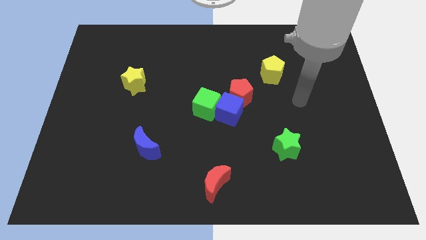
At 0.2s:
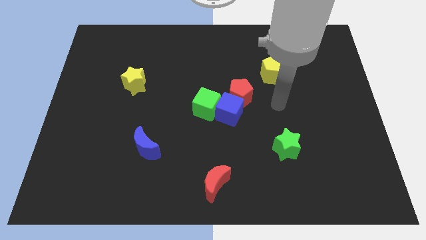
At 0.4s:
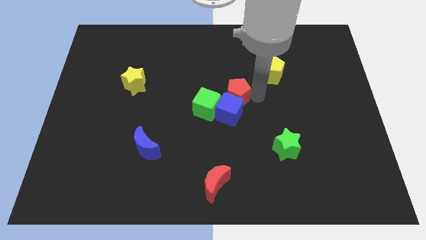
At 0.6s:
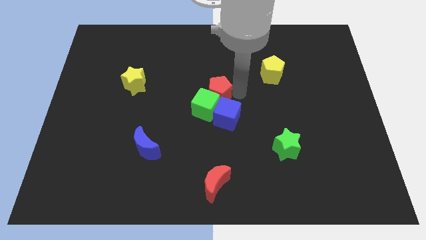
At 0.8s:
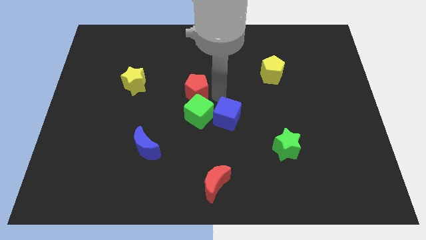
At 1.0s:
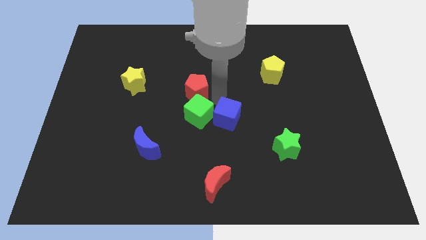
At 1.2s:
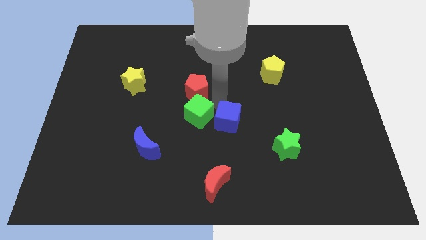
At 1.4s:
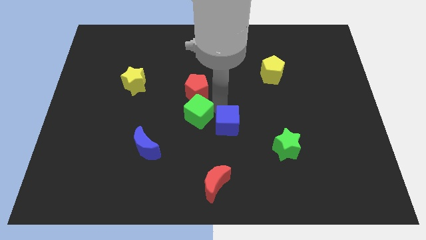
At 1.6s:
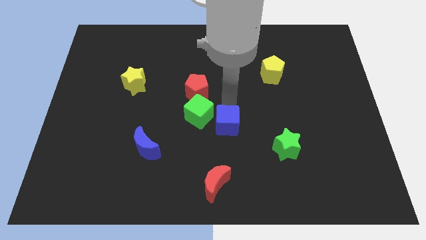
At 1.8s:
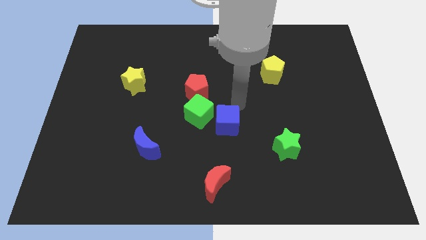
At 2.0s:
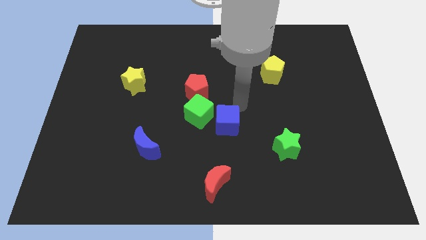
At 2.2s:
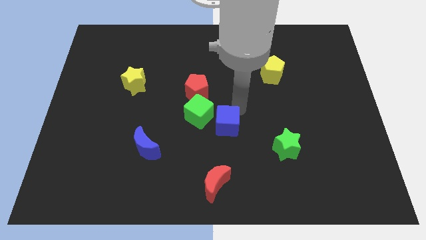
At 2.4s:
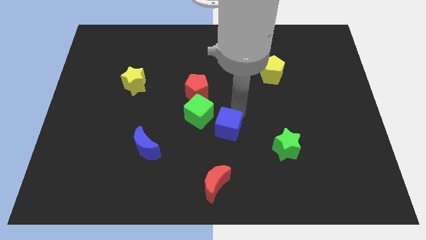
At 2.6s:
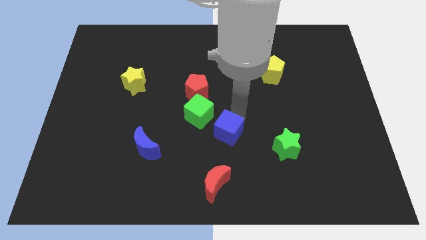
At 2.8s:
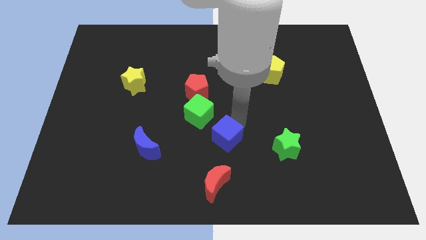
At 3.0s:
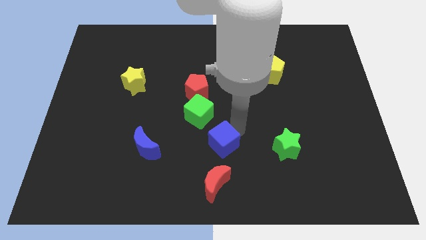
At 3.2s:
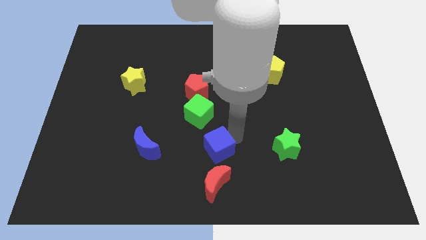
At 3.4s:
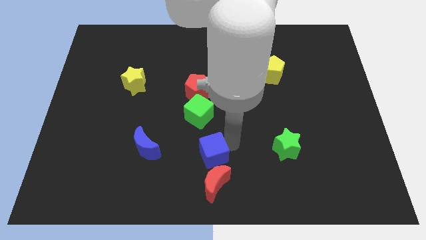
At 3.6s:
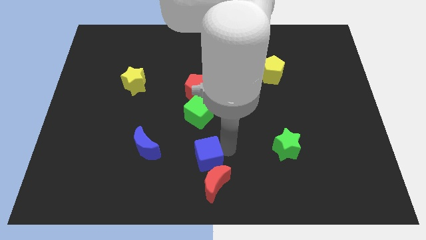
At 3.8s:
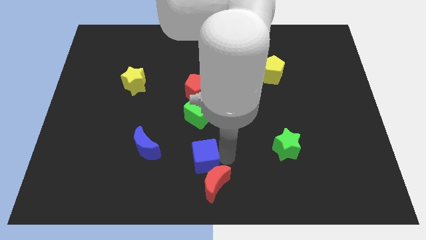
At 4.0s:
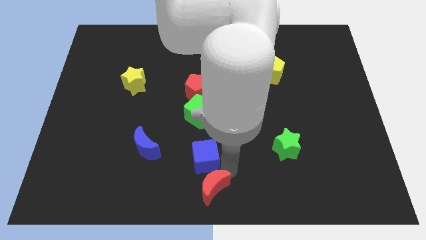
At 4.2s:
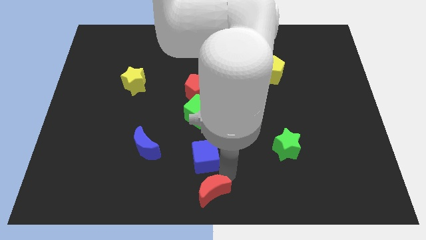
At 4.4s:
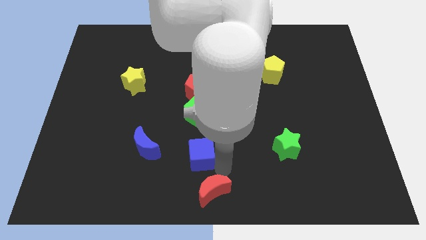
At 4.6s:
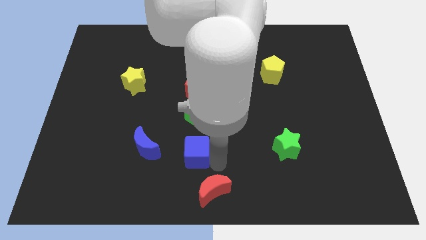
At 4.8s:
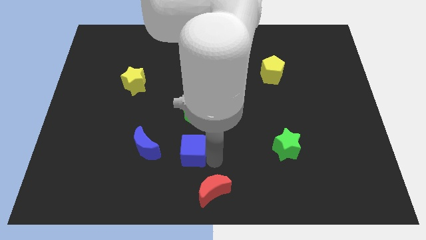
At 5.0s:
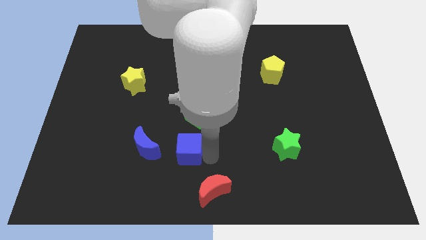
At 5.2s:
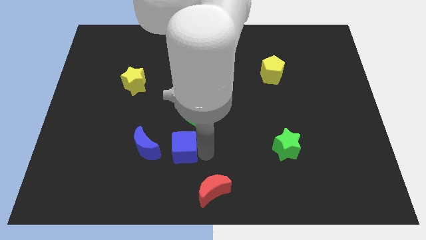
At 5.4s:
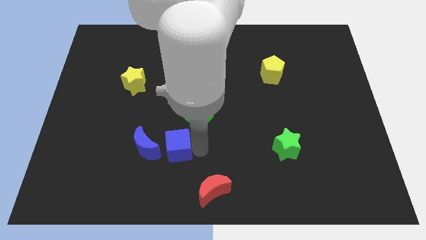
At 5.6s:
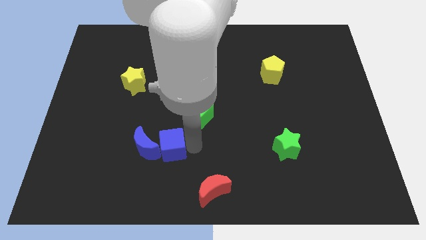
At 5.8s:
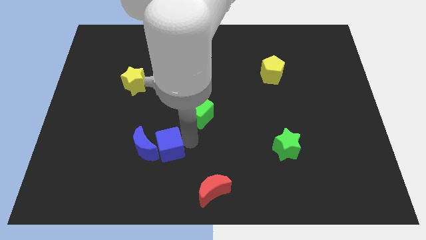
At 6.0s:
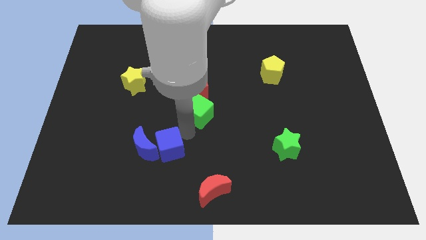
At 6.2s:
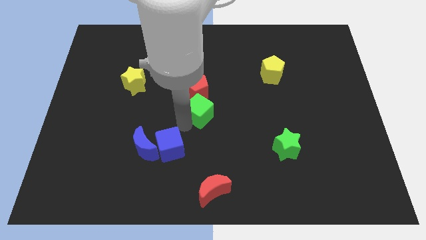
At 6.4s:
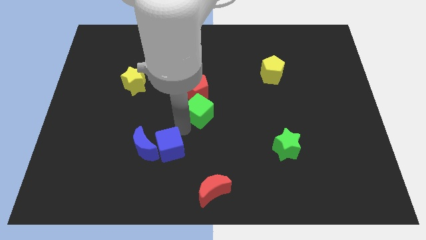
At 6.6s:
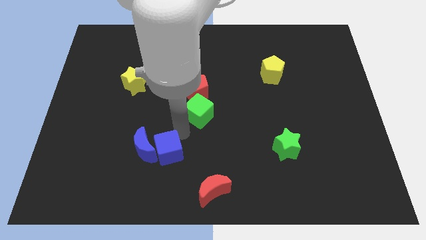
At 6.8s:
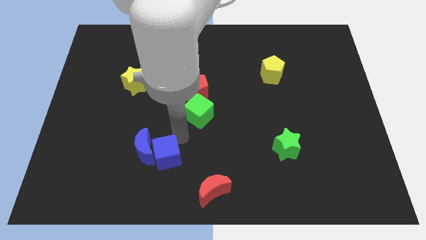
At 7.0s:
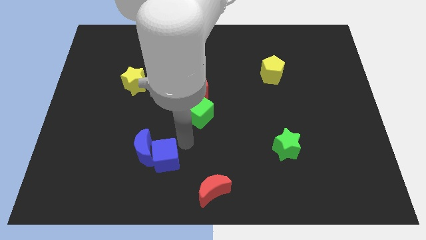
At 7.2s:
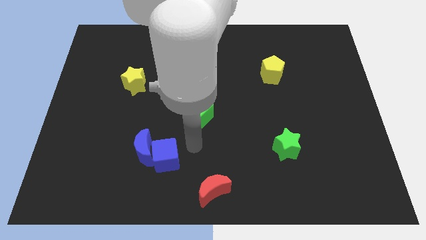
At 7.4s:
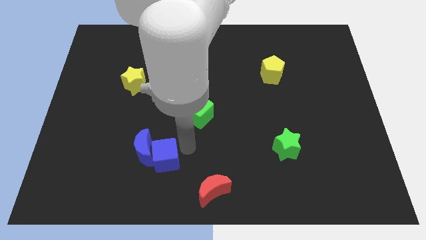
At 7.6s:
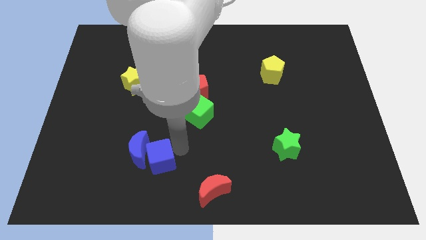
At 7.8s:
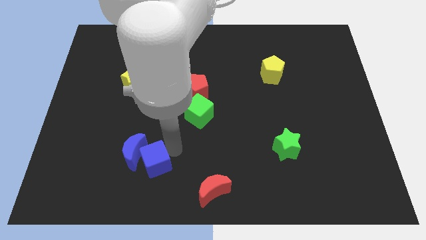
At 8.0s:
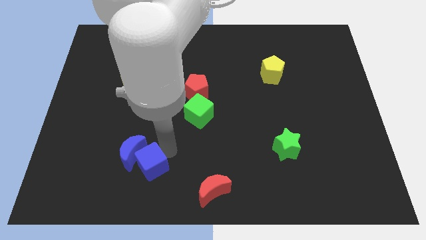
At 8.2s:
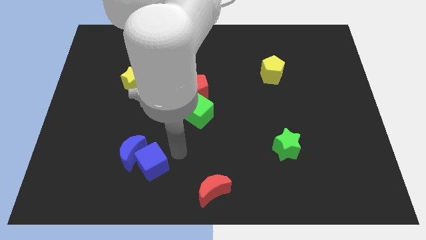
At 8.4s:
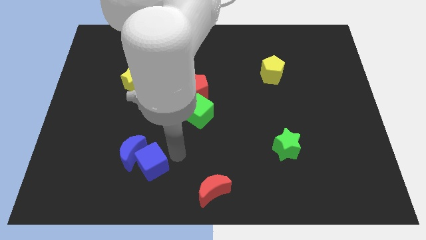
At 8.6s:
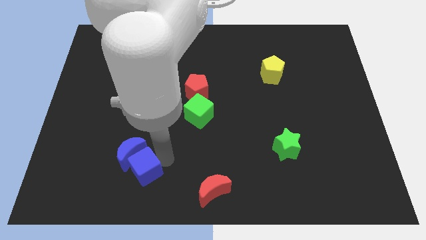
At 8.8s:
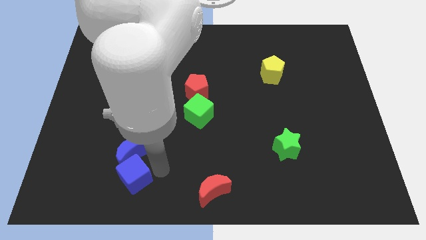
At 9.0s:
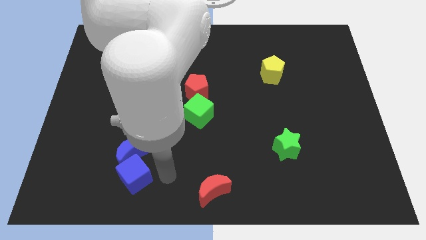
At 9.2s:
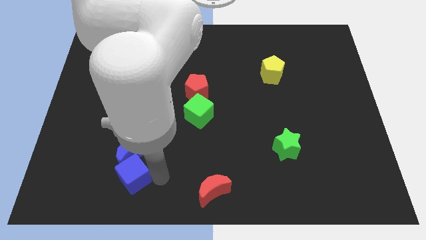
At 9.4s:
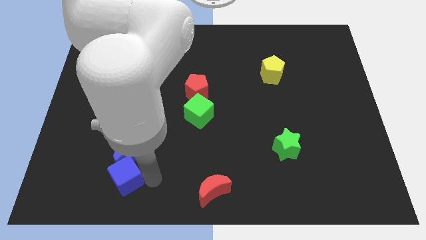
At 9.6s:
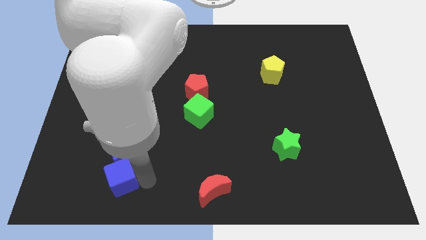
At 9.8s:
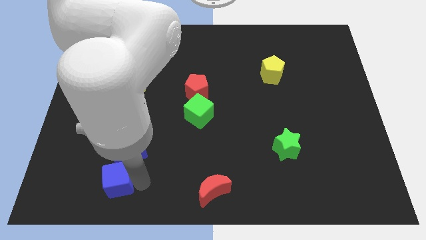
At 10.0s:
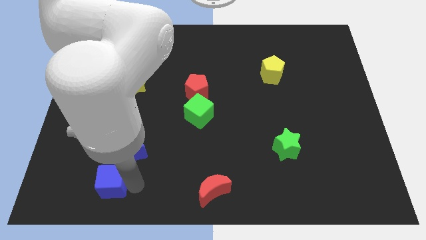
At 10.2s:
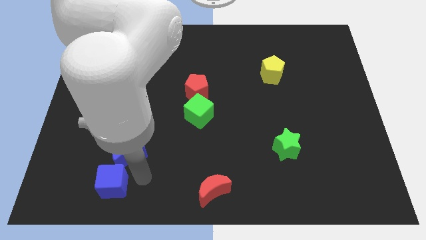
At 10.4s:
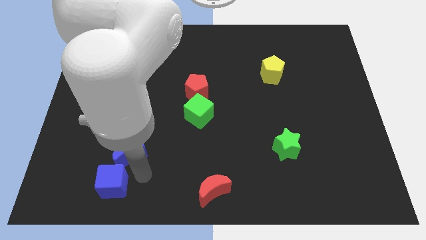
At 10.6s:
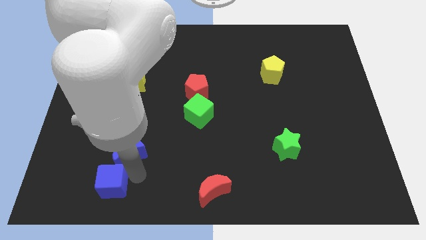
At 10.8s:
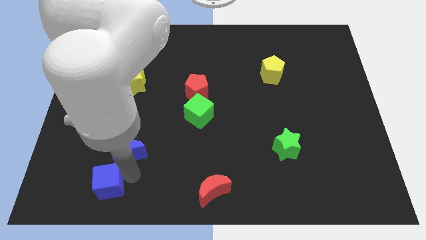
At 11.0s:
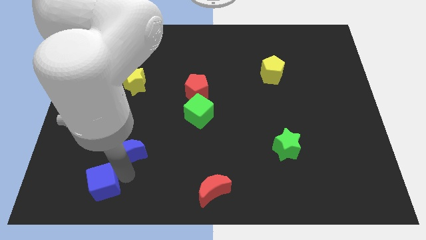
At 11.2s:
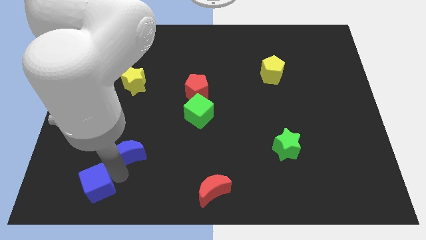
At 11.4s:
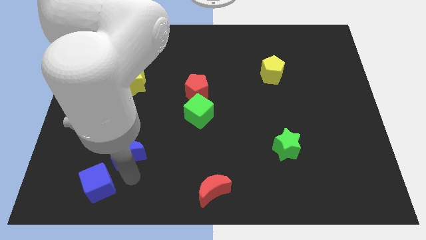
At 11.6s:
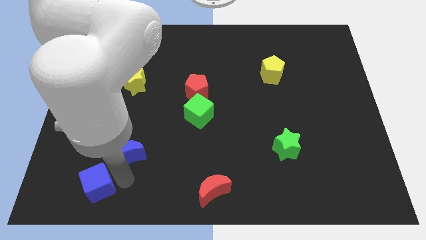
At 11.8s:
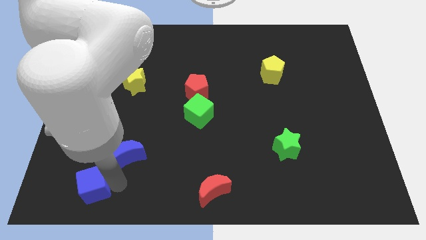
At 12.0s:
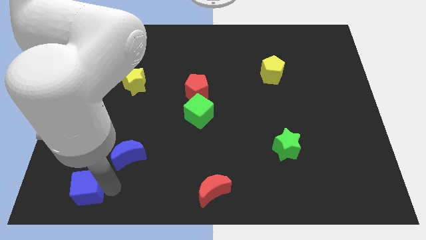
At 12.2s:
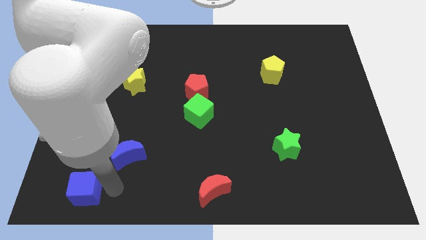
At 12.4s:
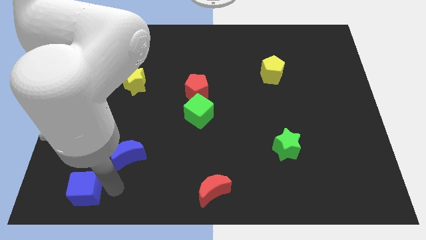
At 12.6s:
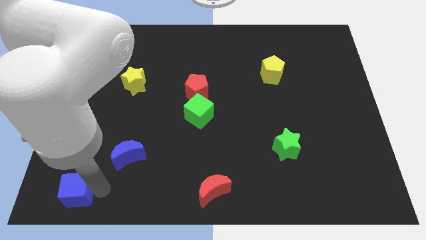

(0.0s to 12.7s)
put the blue cube to the bottom left corner
